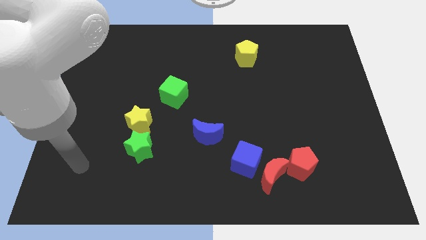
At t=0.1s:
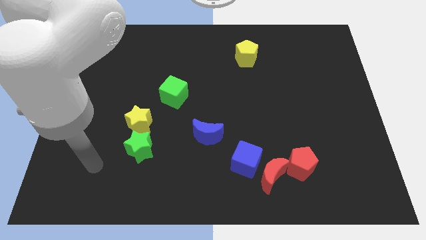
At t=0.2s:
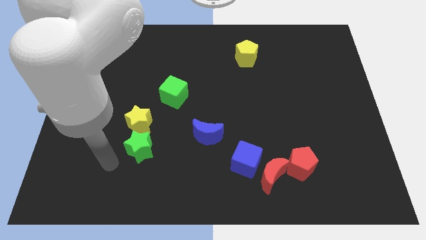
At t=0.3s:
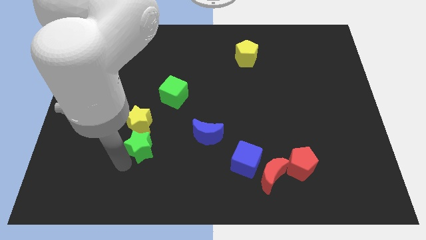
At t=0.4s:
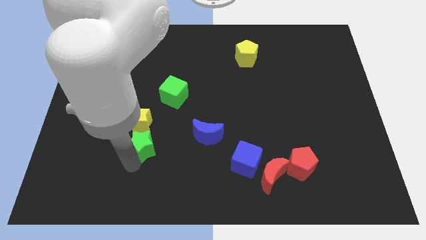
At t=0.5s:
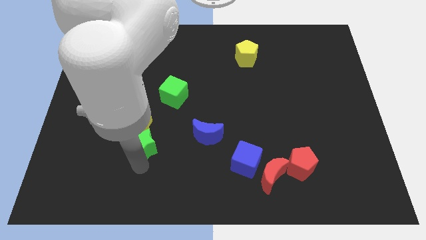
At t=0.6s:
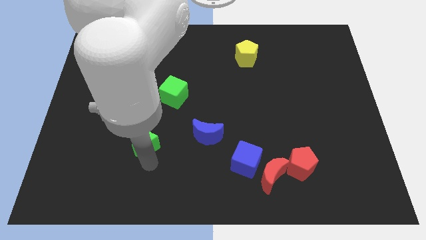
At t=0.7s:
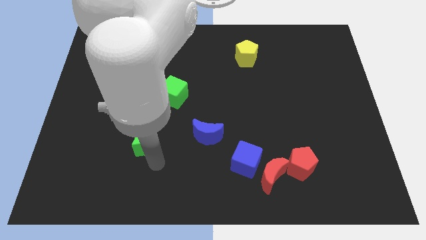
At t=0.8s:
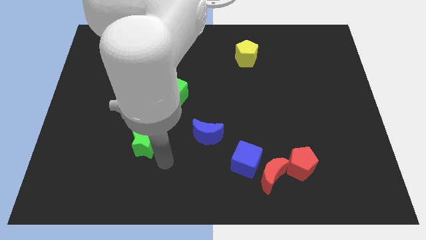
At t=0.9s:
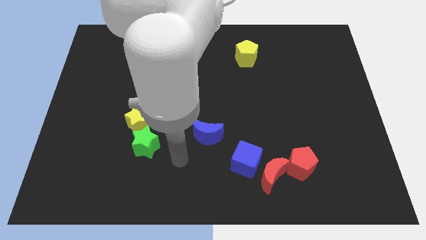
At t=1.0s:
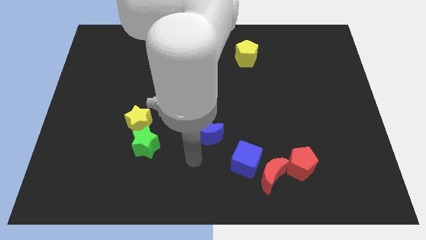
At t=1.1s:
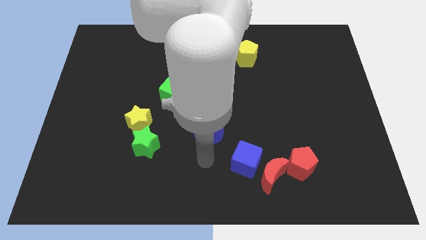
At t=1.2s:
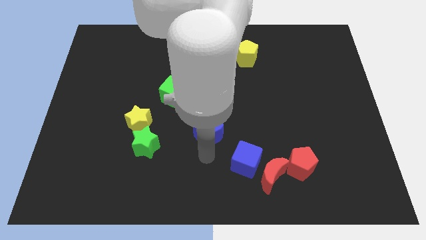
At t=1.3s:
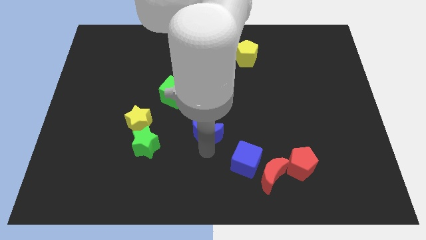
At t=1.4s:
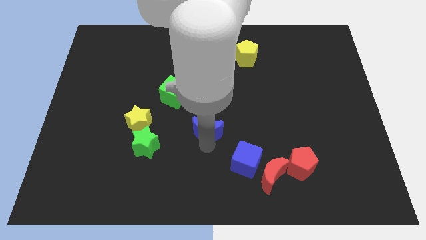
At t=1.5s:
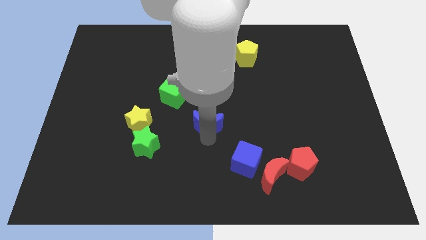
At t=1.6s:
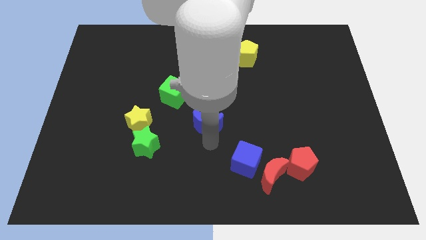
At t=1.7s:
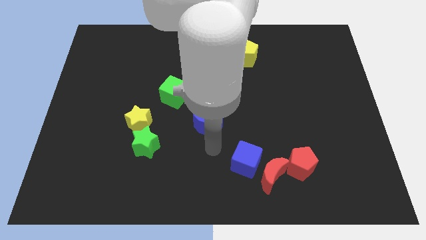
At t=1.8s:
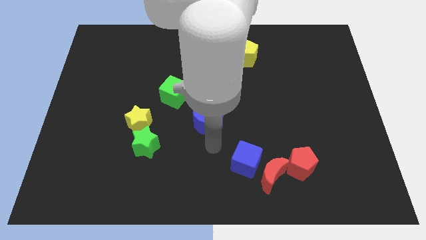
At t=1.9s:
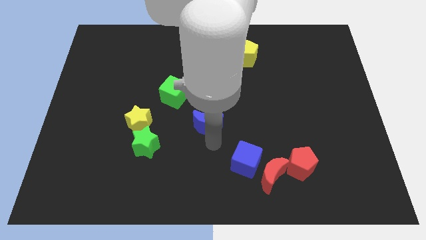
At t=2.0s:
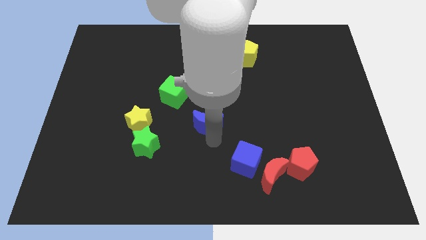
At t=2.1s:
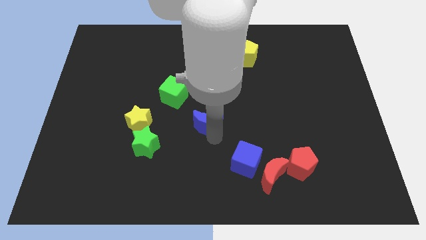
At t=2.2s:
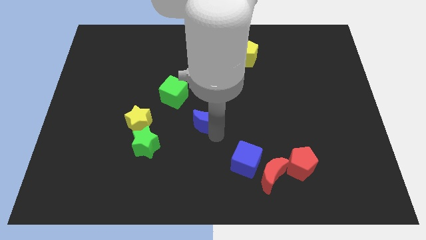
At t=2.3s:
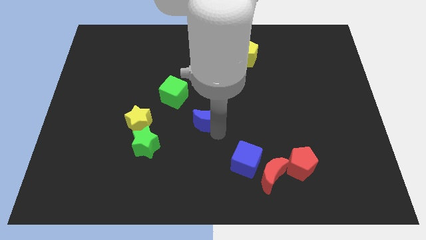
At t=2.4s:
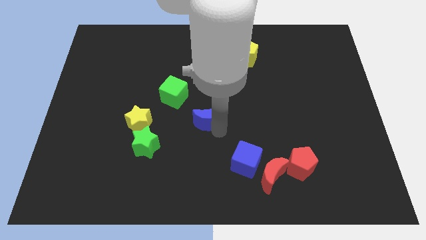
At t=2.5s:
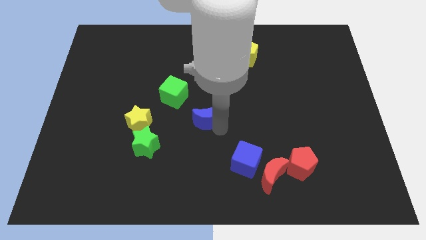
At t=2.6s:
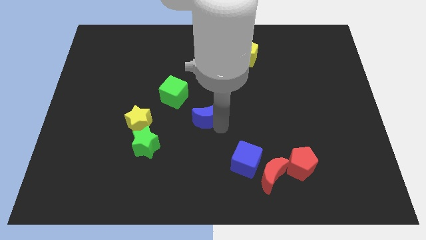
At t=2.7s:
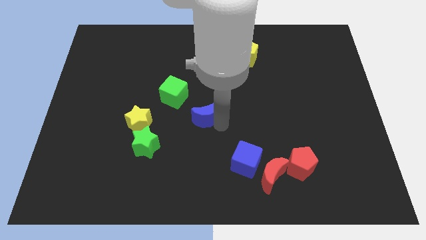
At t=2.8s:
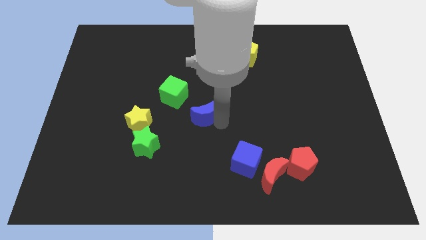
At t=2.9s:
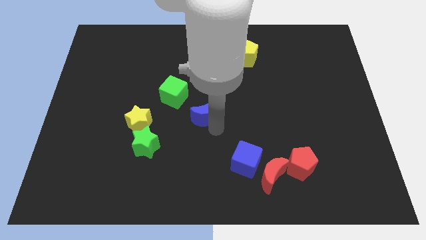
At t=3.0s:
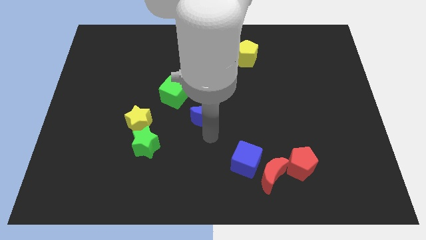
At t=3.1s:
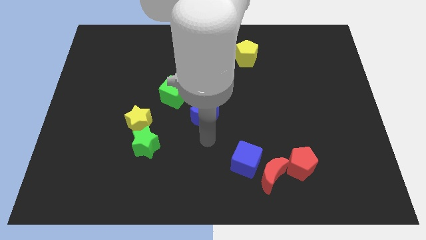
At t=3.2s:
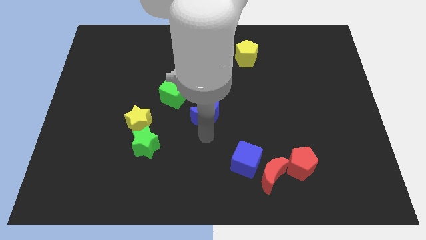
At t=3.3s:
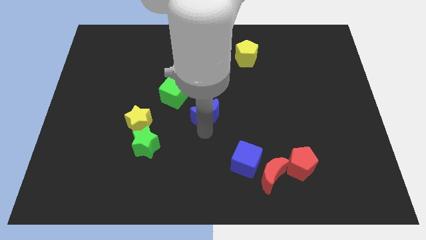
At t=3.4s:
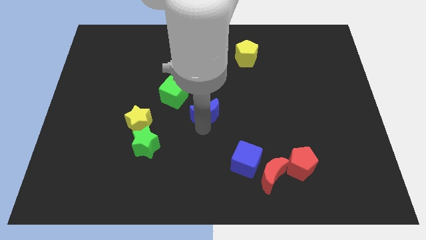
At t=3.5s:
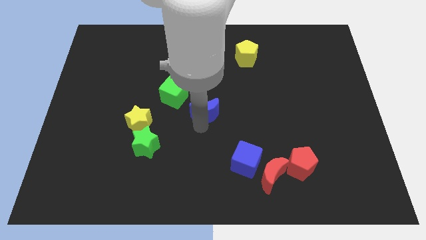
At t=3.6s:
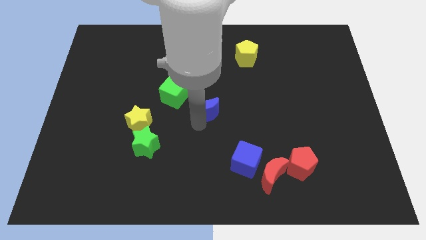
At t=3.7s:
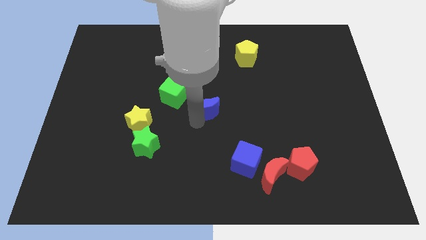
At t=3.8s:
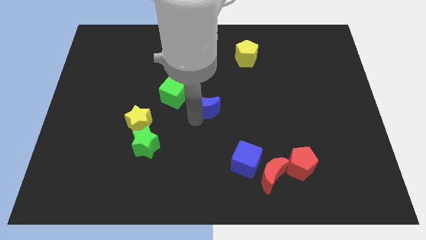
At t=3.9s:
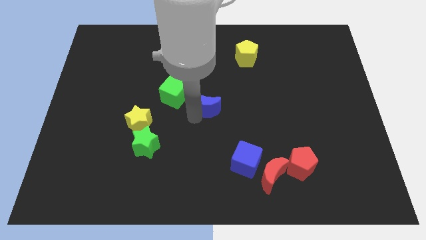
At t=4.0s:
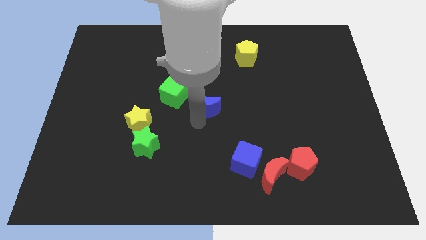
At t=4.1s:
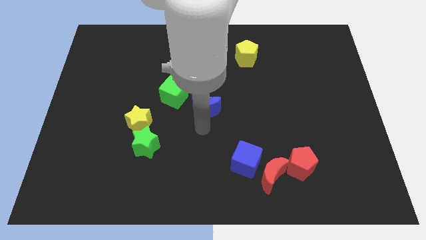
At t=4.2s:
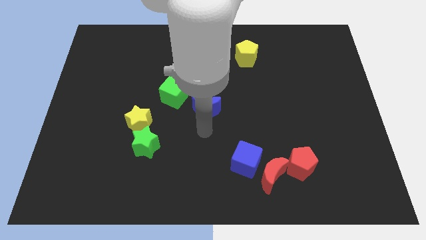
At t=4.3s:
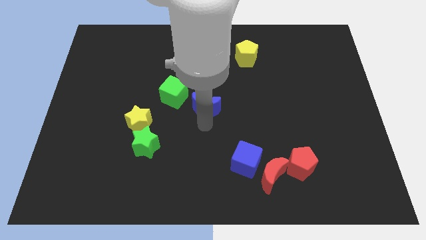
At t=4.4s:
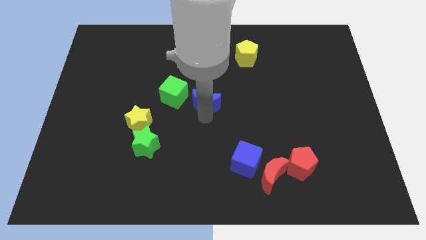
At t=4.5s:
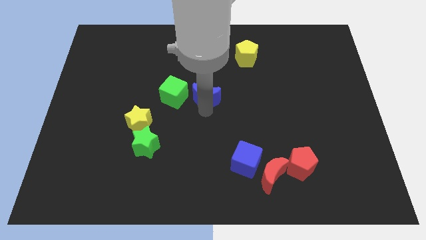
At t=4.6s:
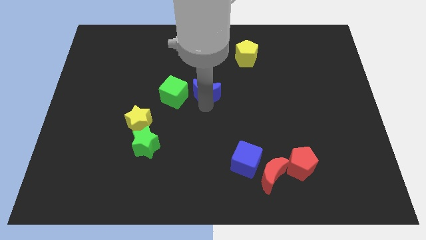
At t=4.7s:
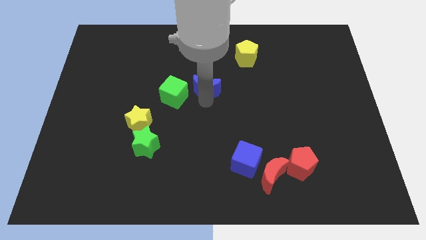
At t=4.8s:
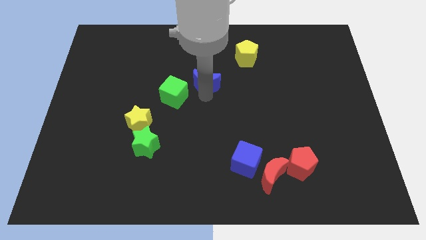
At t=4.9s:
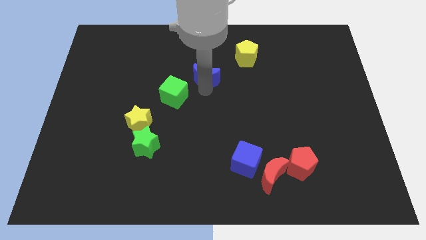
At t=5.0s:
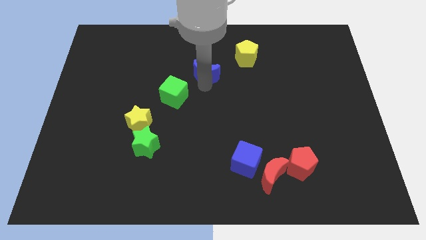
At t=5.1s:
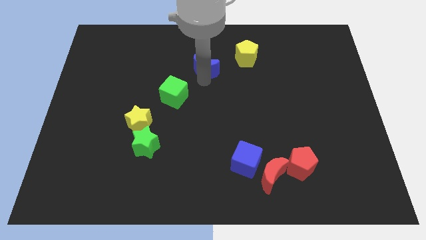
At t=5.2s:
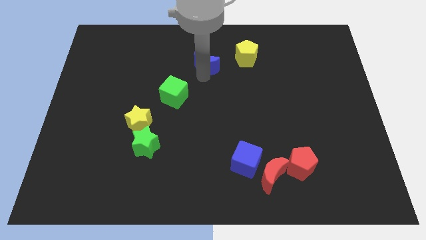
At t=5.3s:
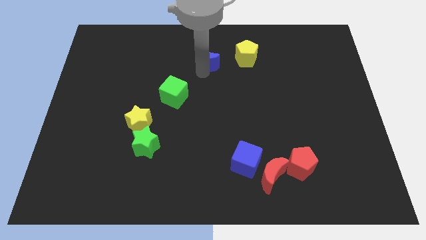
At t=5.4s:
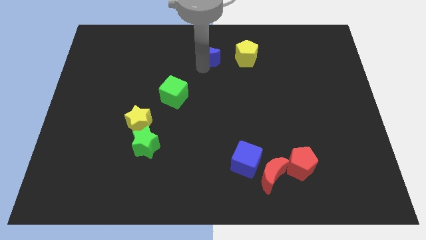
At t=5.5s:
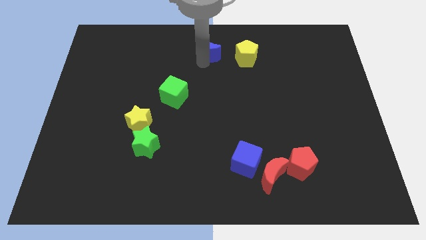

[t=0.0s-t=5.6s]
move the blue moon to the top

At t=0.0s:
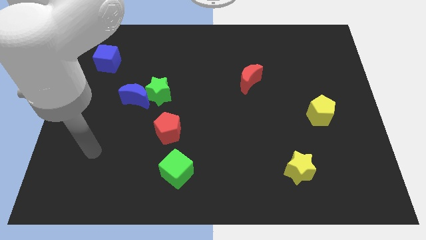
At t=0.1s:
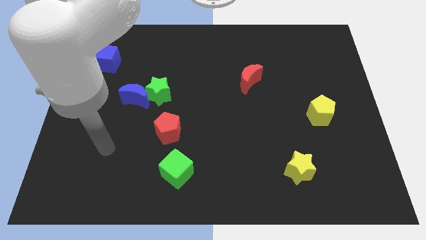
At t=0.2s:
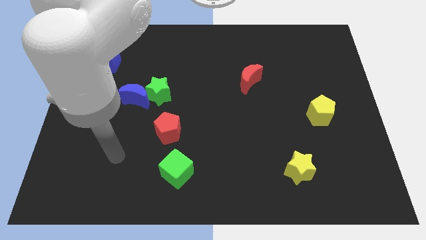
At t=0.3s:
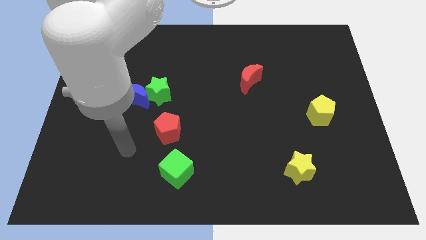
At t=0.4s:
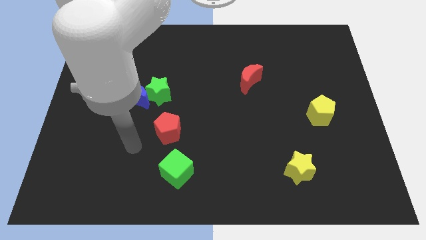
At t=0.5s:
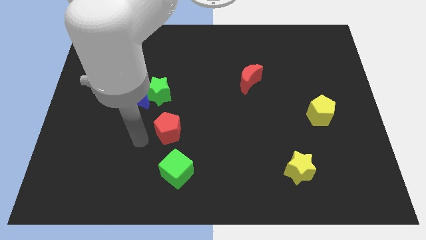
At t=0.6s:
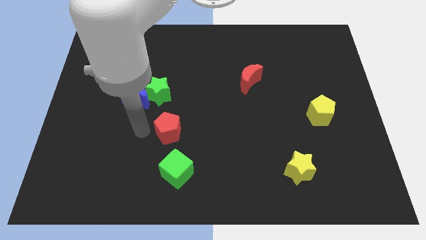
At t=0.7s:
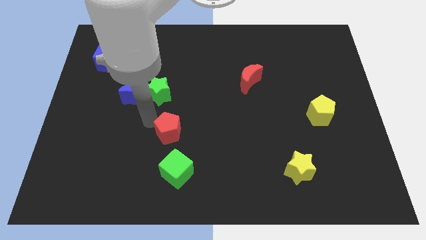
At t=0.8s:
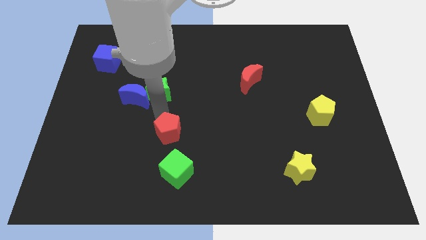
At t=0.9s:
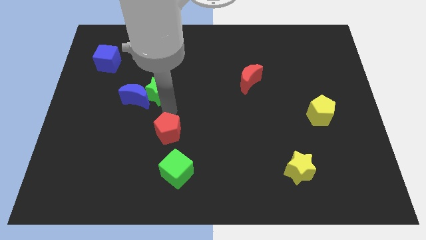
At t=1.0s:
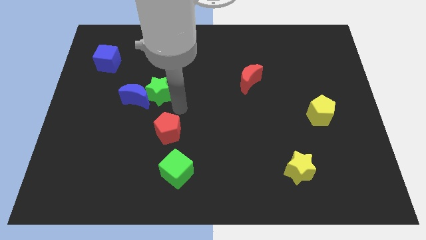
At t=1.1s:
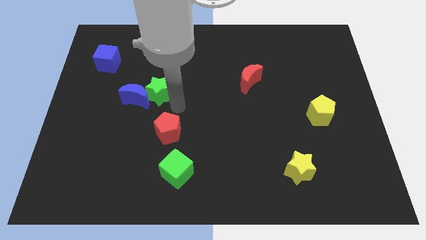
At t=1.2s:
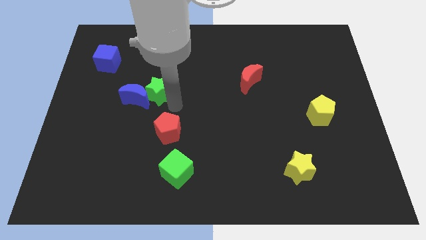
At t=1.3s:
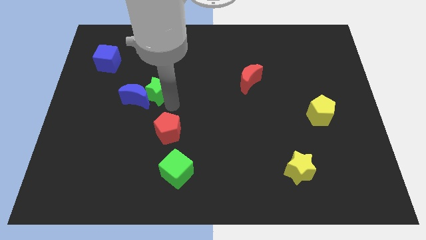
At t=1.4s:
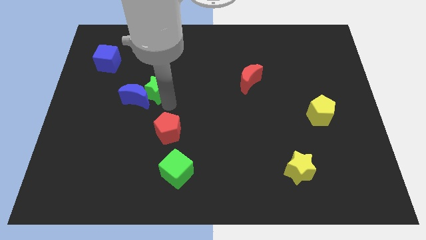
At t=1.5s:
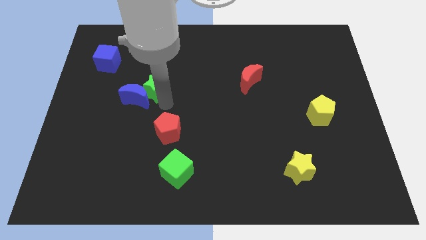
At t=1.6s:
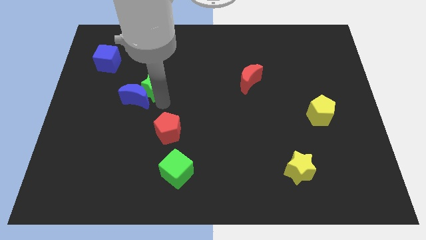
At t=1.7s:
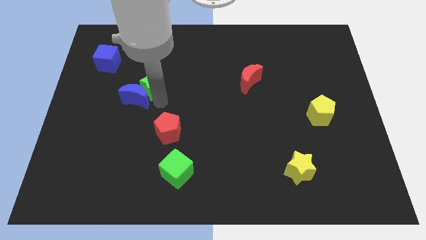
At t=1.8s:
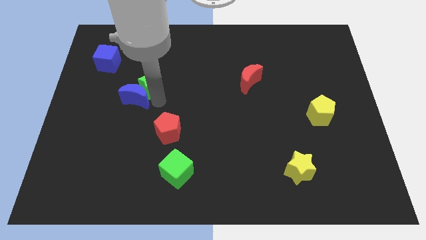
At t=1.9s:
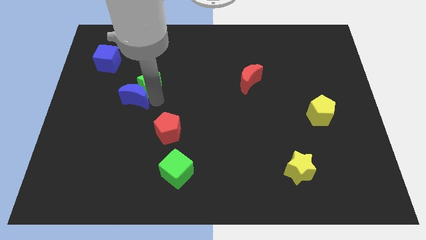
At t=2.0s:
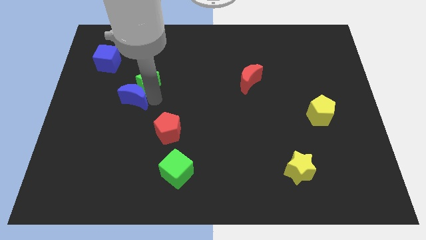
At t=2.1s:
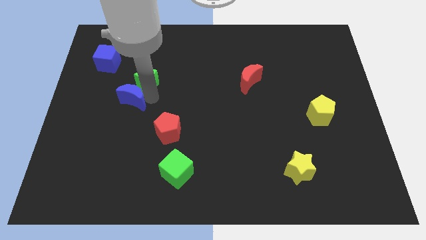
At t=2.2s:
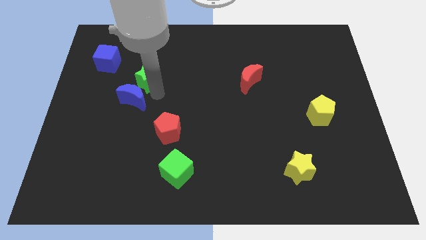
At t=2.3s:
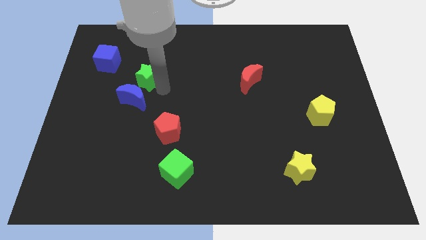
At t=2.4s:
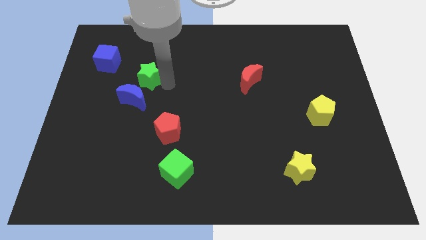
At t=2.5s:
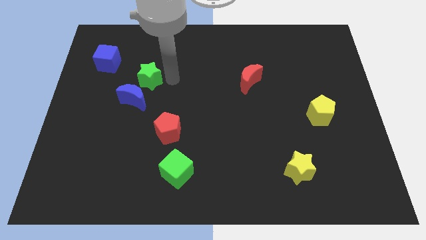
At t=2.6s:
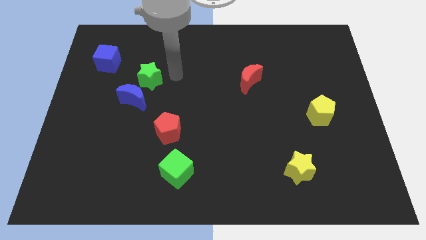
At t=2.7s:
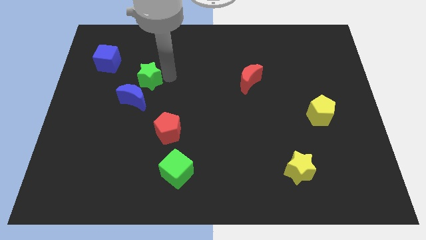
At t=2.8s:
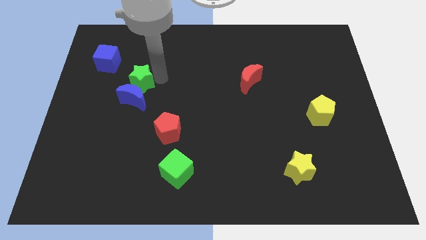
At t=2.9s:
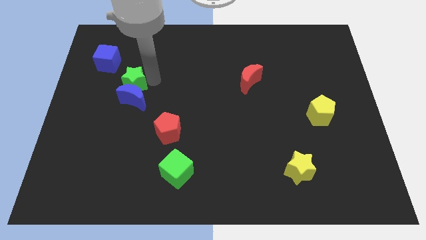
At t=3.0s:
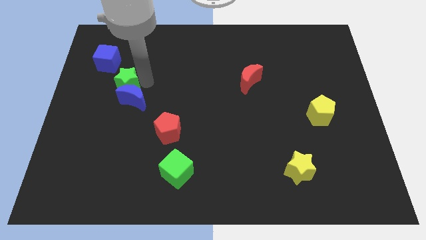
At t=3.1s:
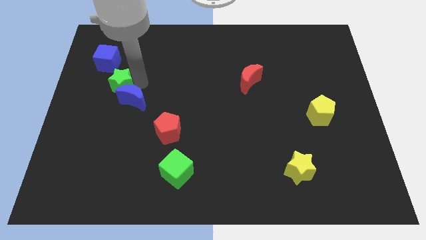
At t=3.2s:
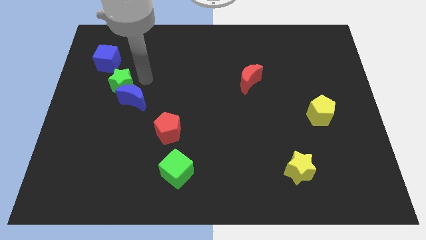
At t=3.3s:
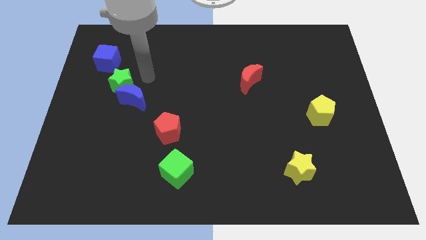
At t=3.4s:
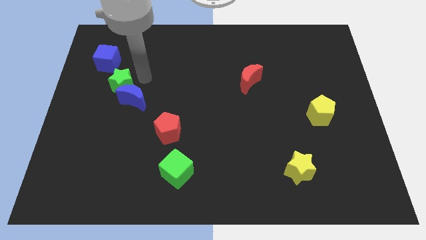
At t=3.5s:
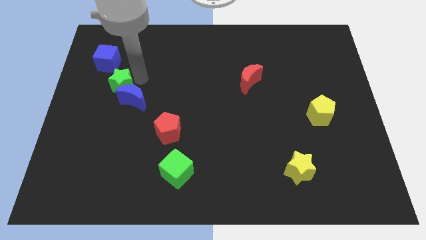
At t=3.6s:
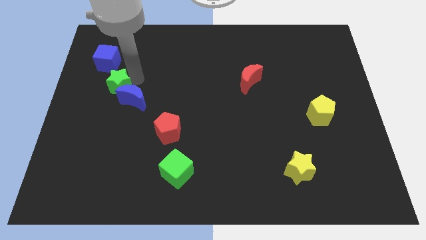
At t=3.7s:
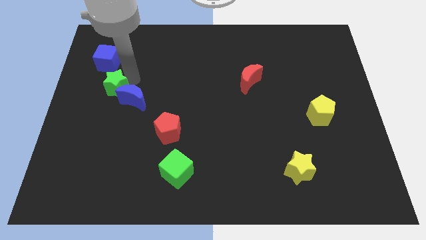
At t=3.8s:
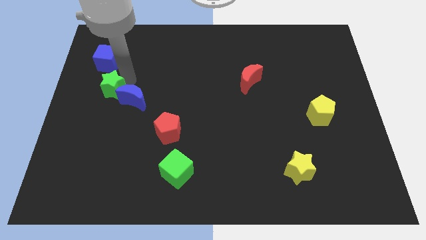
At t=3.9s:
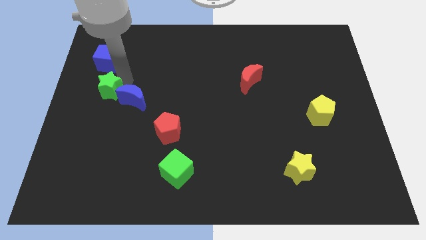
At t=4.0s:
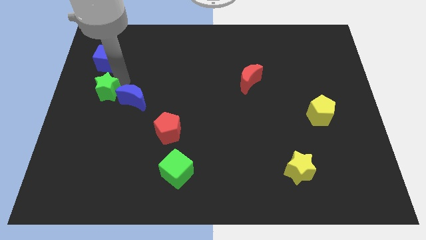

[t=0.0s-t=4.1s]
put the green star to the left side
